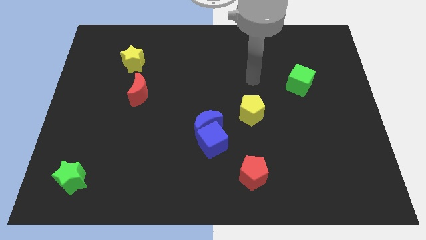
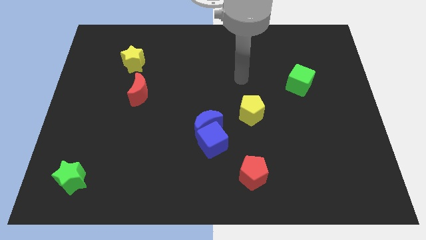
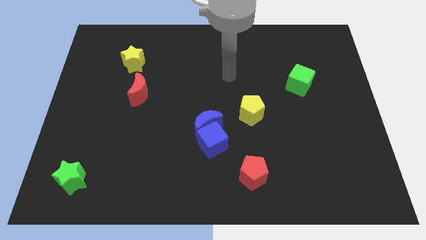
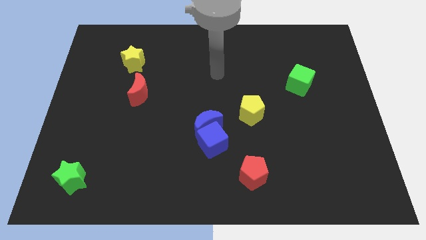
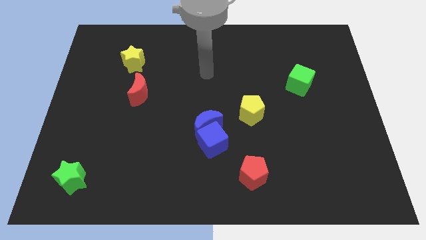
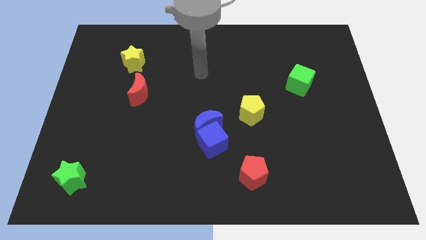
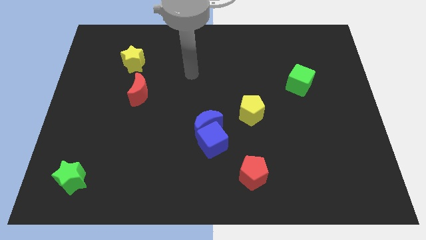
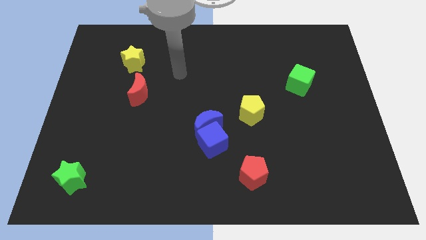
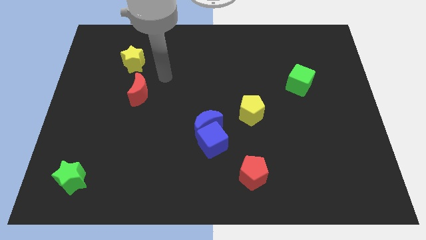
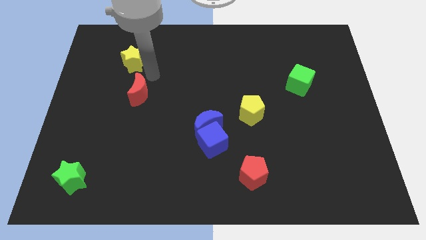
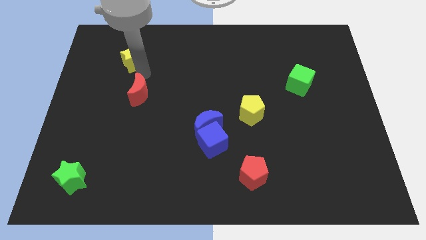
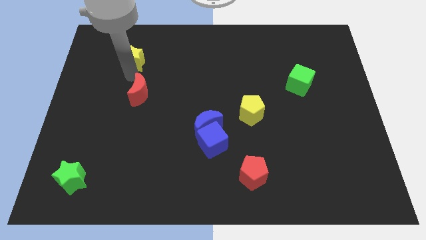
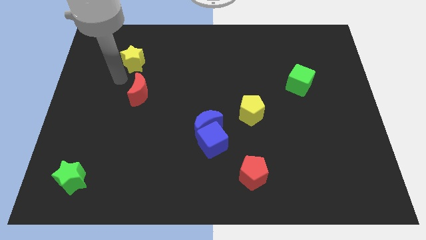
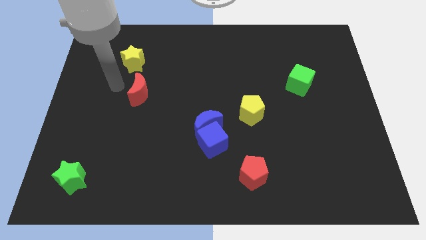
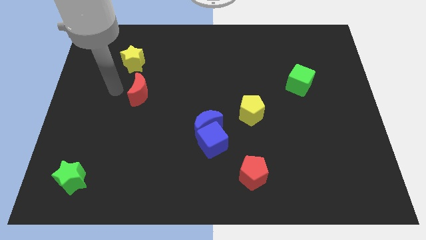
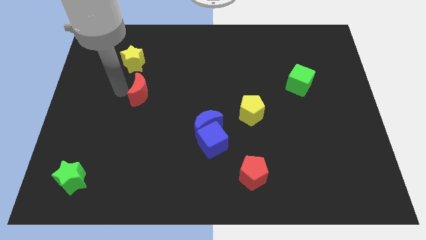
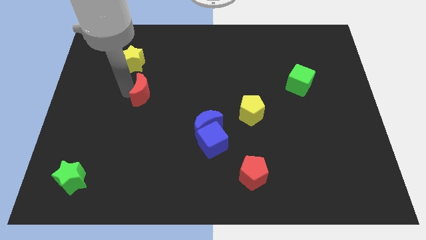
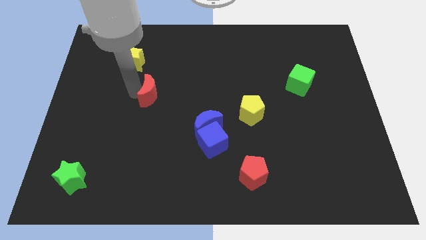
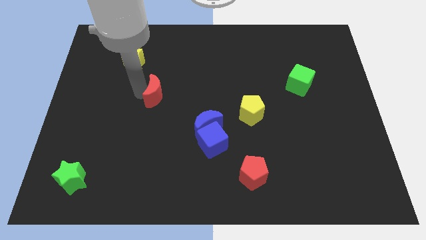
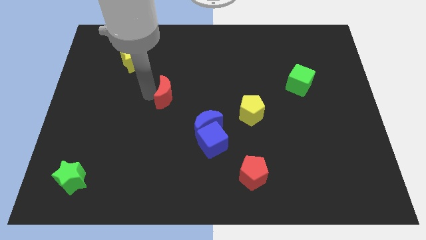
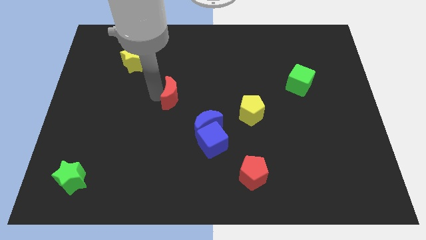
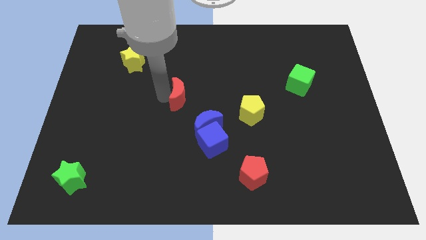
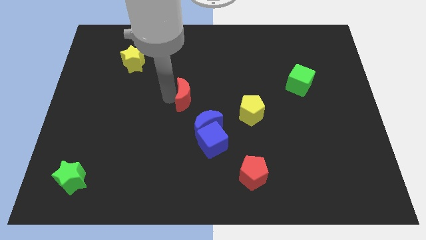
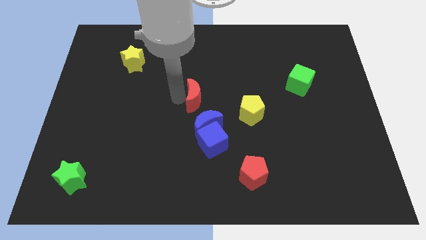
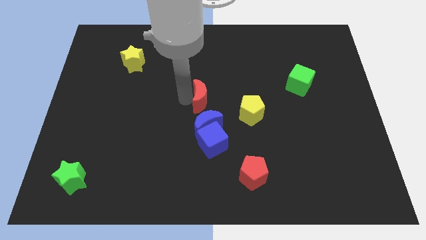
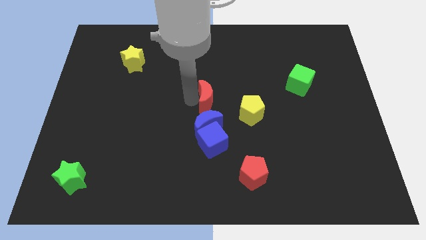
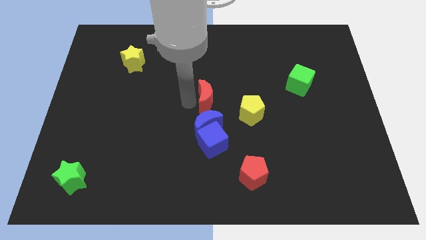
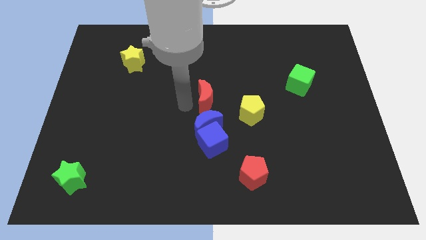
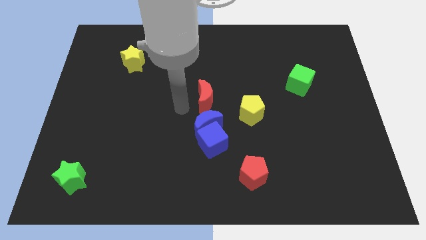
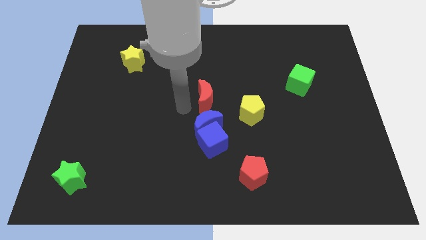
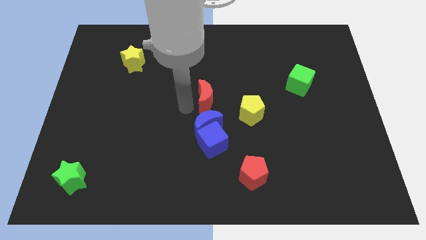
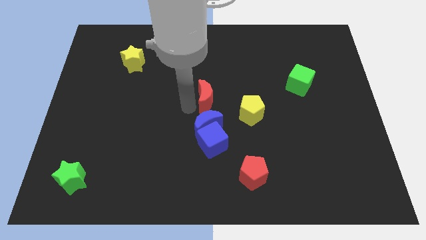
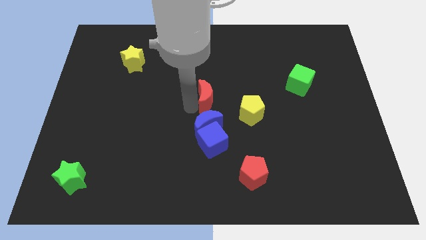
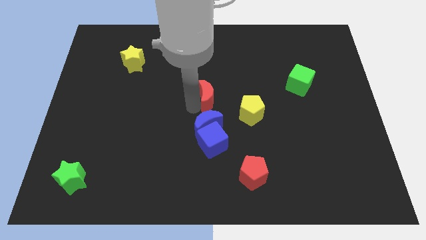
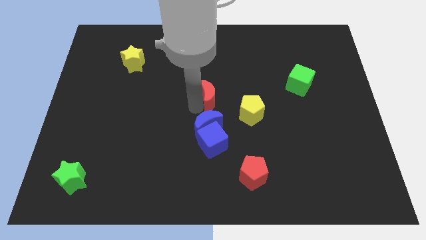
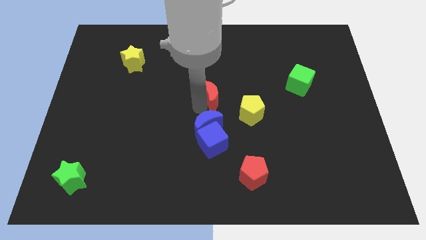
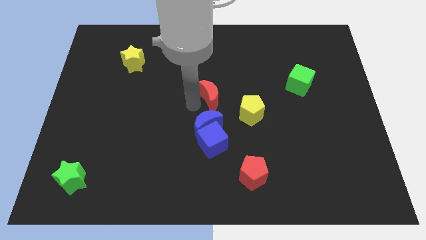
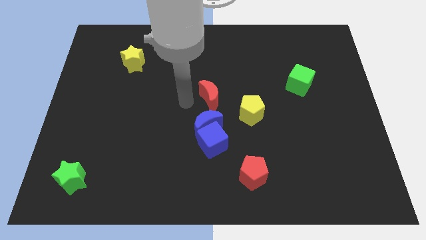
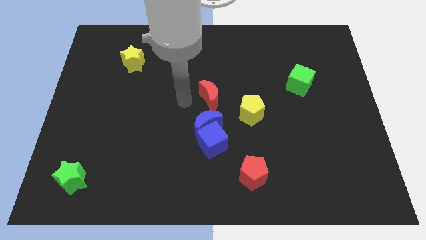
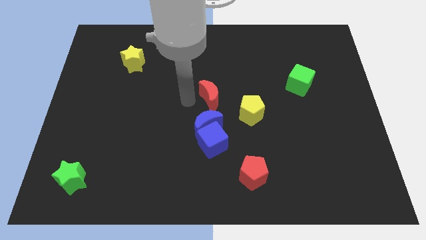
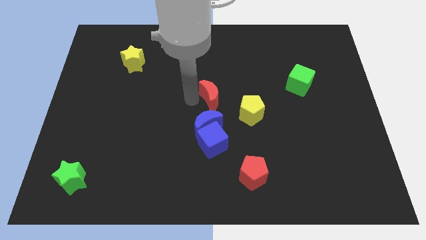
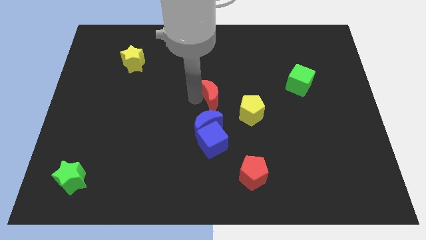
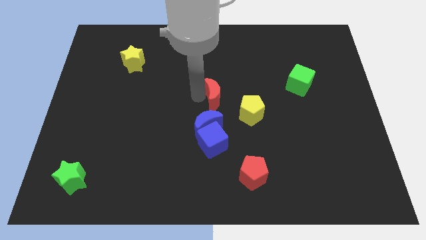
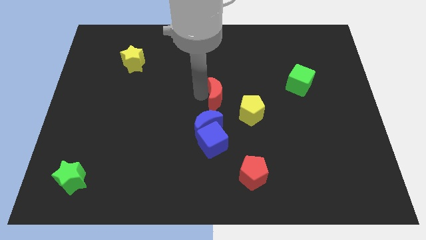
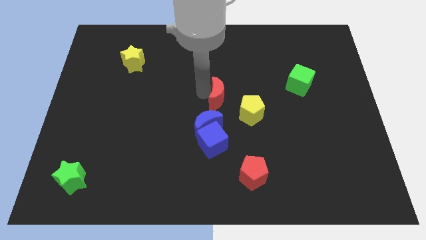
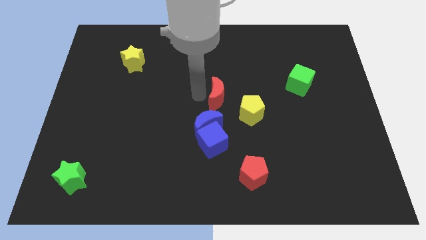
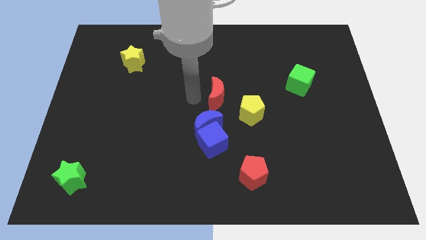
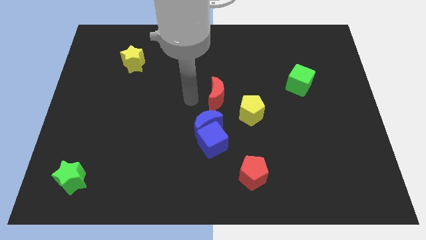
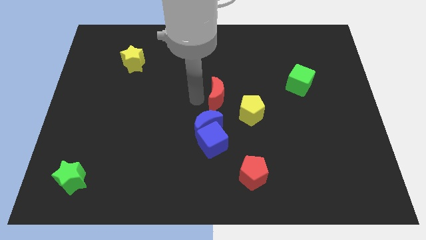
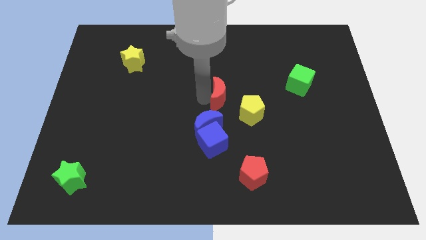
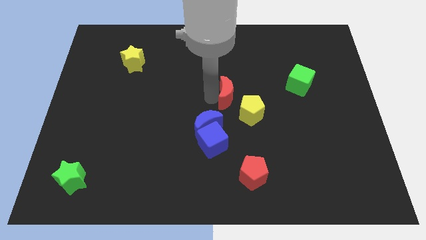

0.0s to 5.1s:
push the red moon right

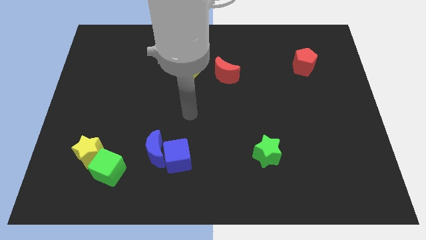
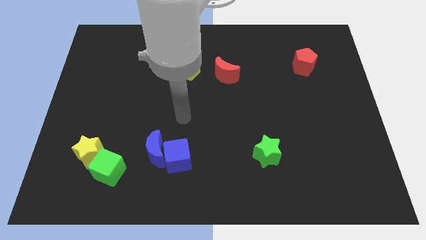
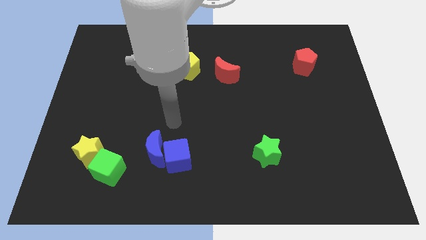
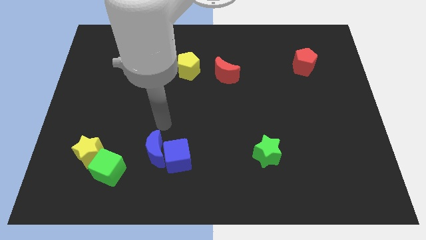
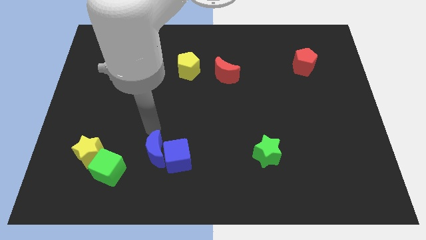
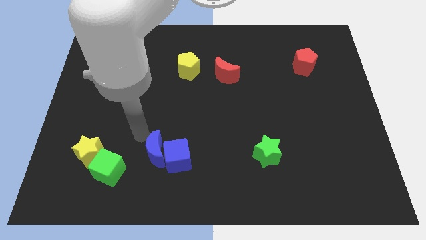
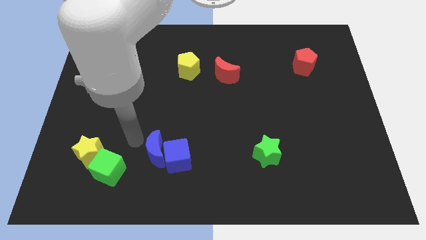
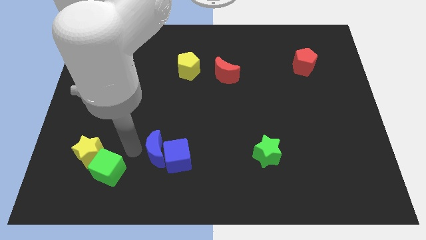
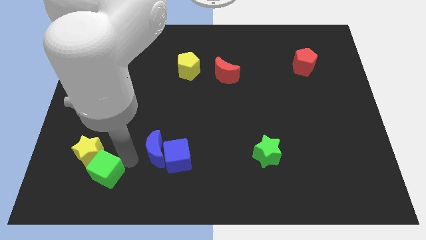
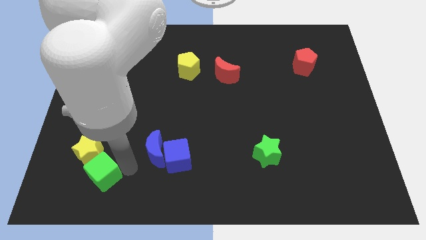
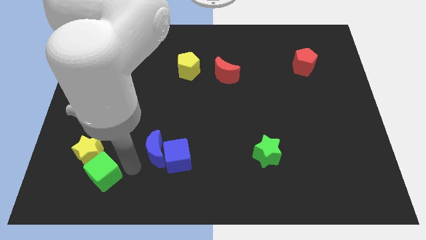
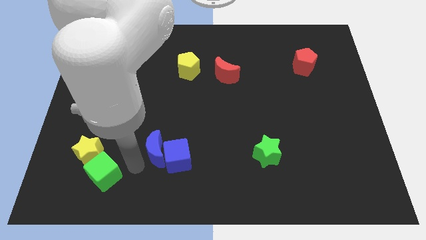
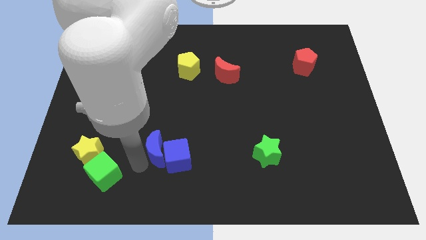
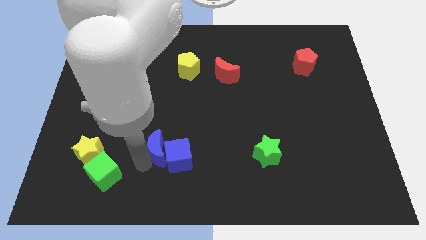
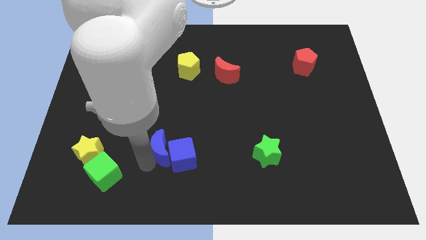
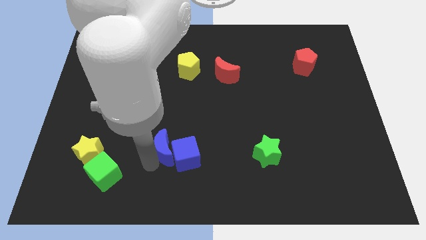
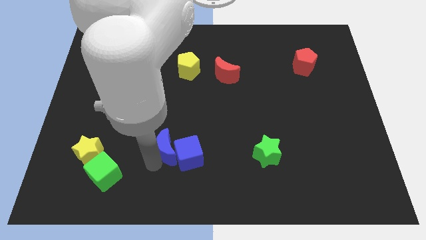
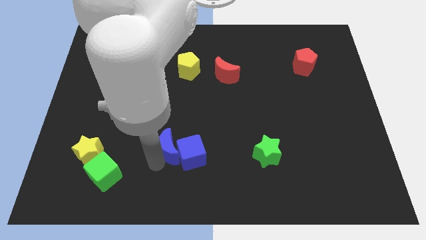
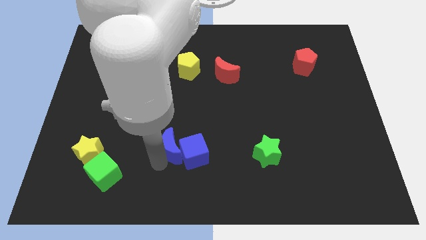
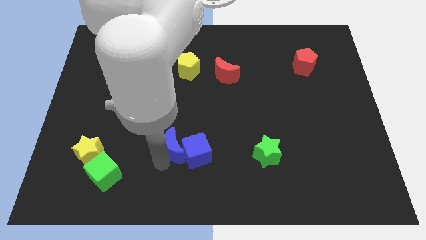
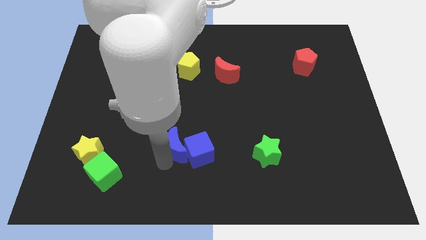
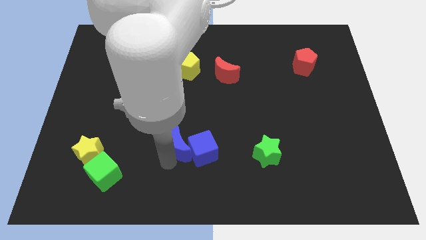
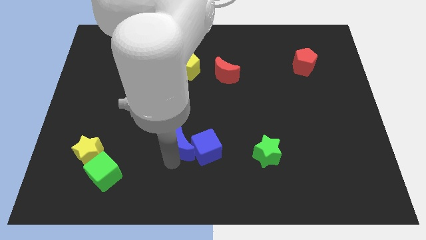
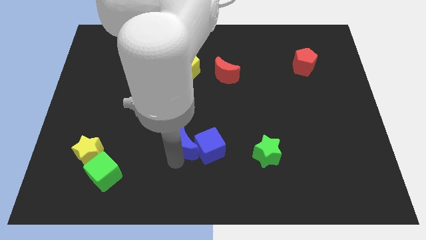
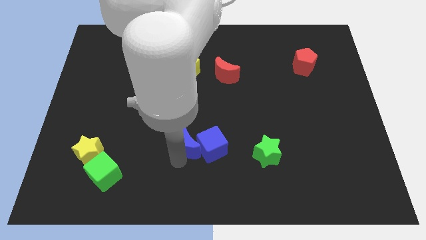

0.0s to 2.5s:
slightly push the blue moon right

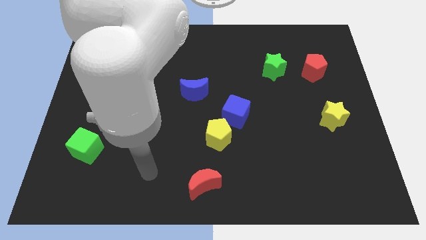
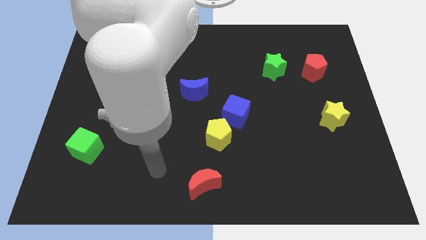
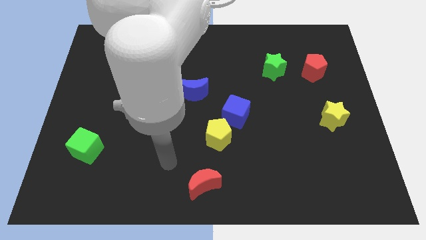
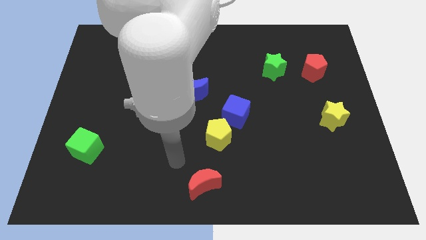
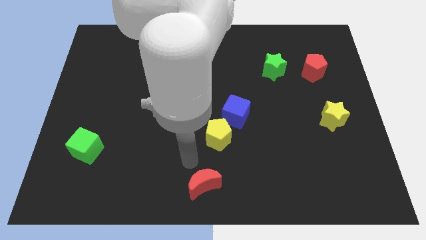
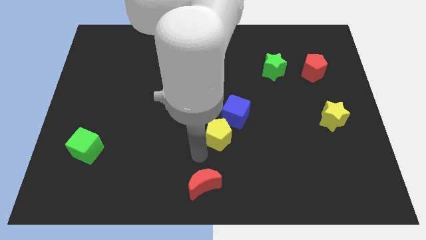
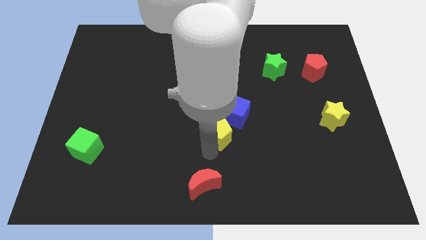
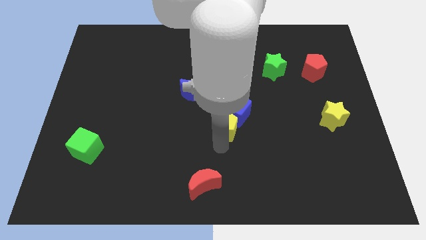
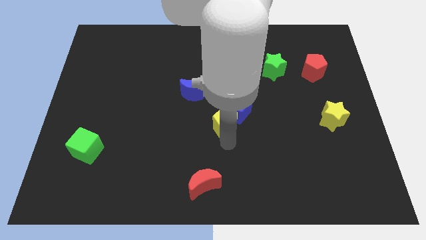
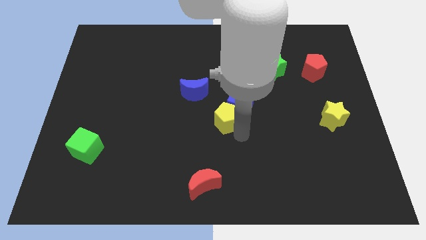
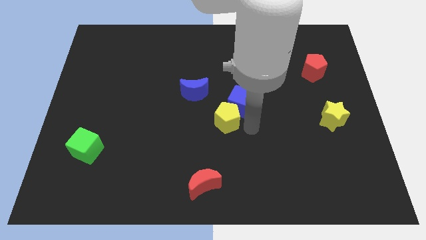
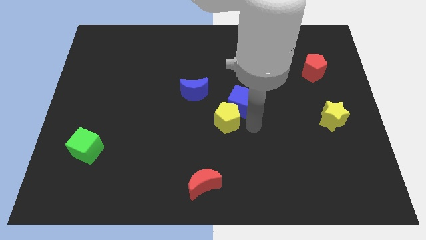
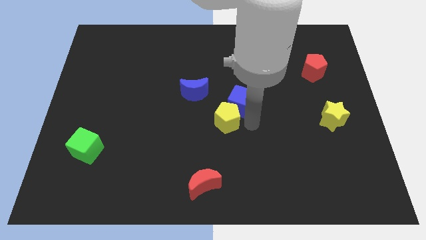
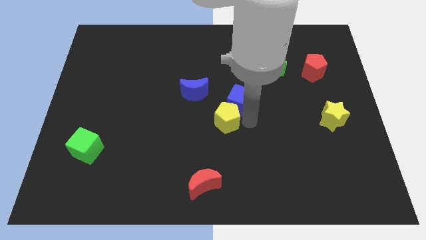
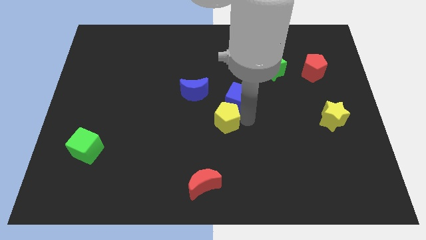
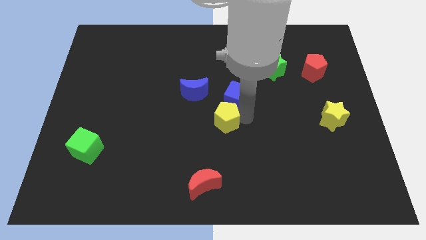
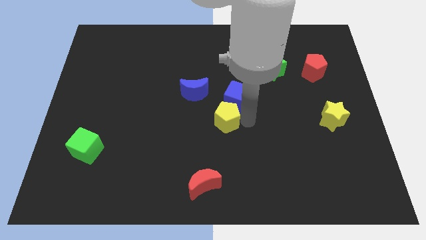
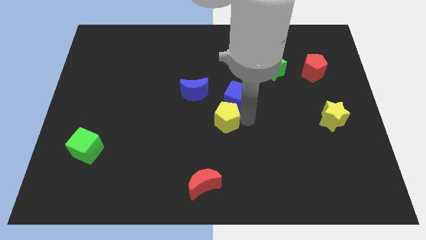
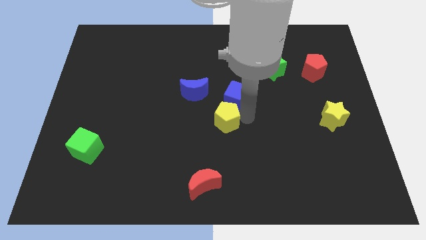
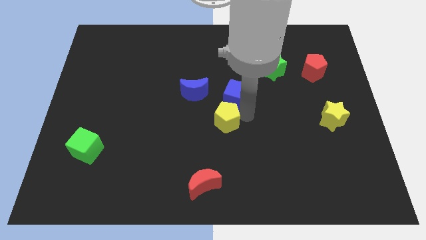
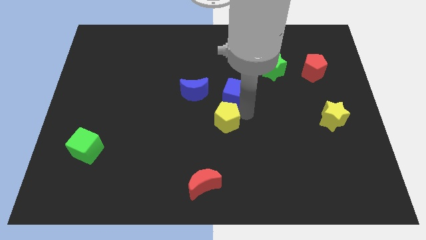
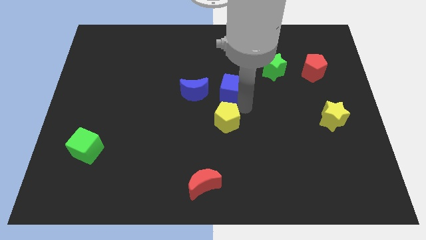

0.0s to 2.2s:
move the blue cube a little bit up
